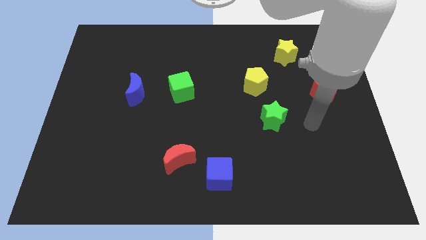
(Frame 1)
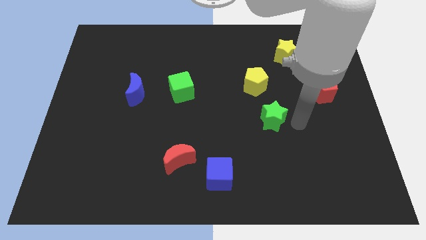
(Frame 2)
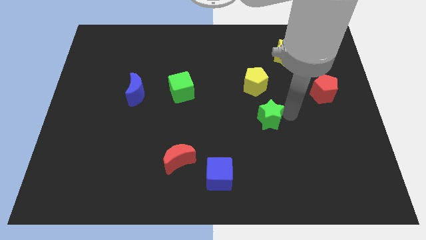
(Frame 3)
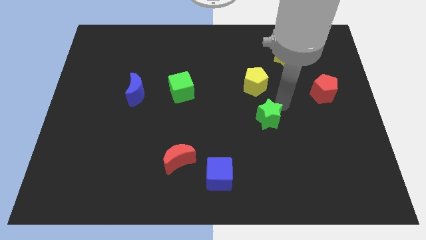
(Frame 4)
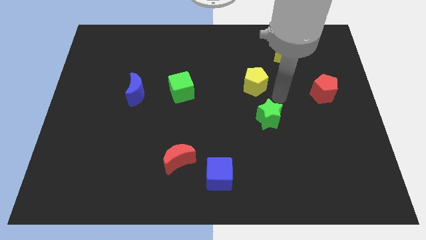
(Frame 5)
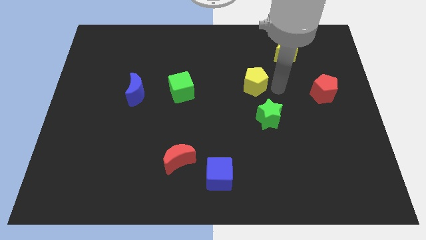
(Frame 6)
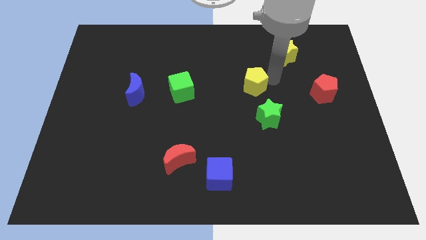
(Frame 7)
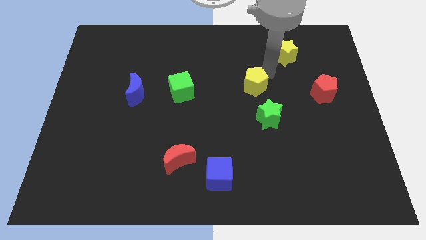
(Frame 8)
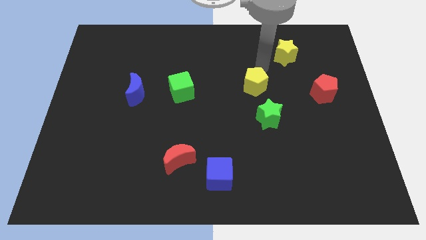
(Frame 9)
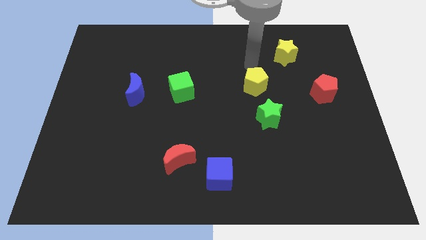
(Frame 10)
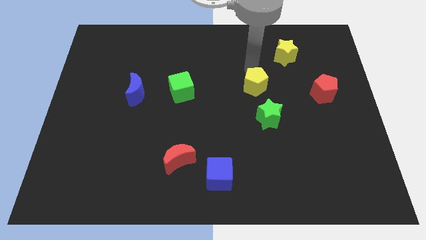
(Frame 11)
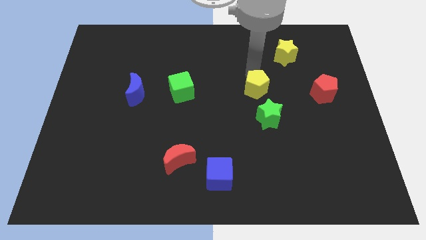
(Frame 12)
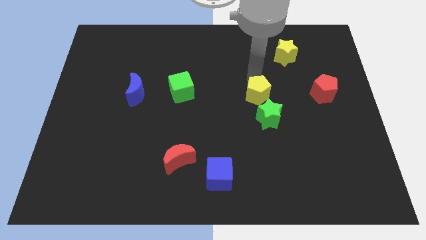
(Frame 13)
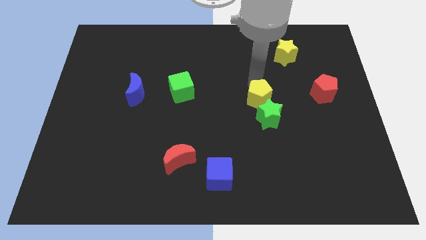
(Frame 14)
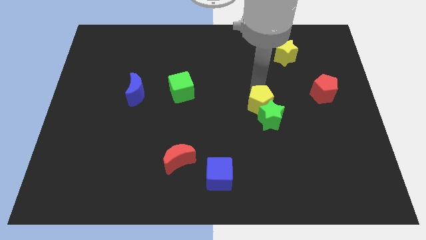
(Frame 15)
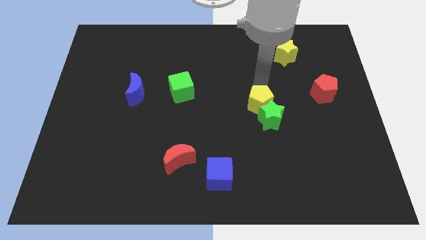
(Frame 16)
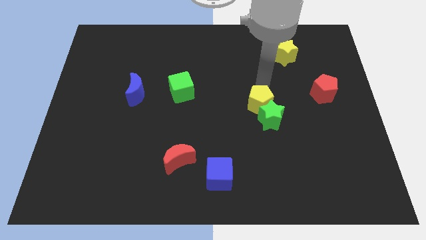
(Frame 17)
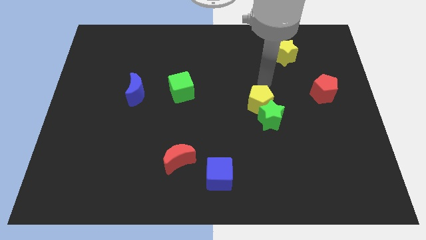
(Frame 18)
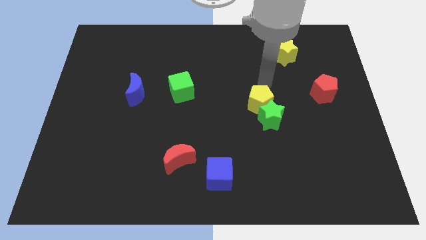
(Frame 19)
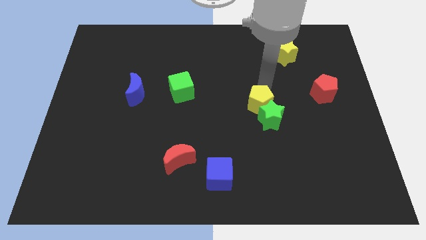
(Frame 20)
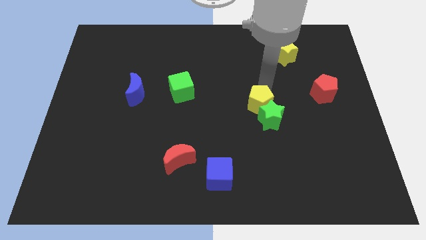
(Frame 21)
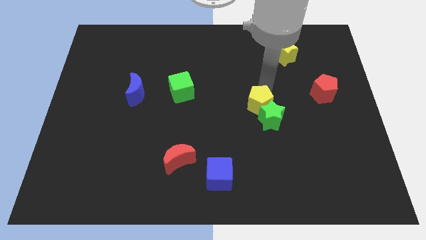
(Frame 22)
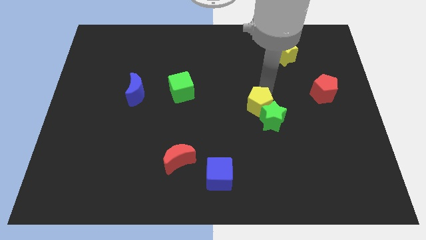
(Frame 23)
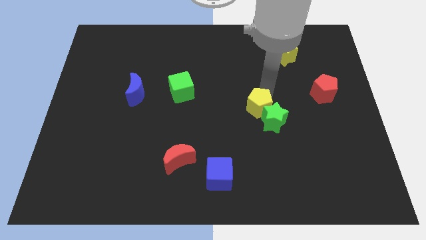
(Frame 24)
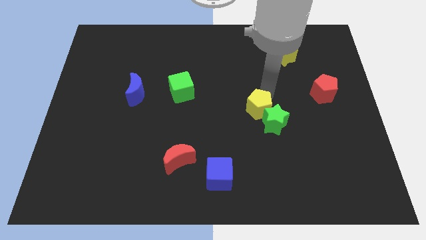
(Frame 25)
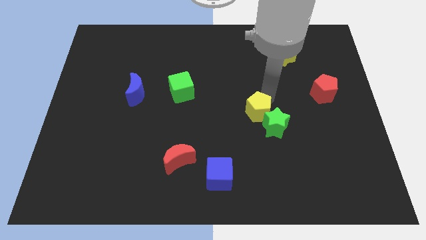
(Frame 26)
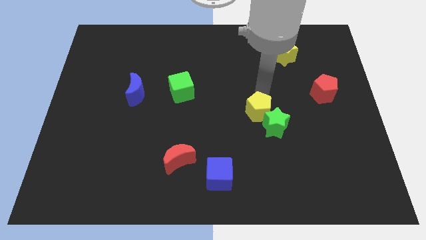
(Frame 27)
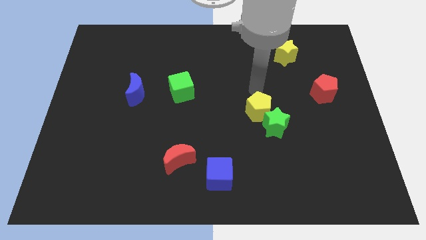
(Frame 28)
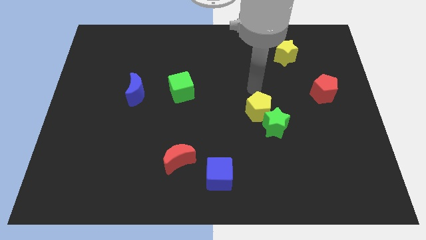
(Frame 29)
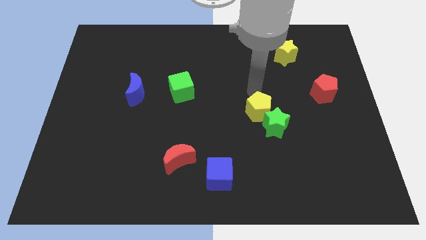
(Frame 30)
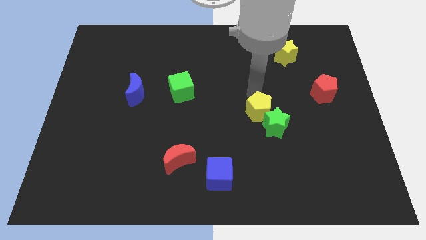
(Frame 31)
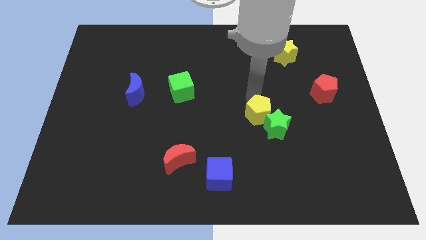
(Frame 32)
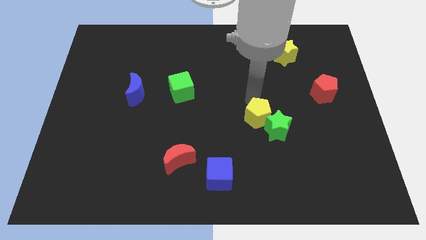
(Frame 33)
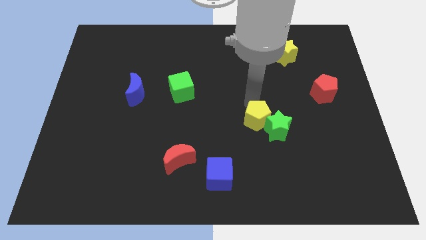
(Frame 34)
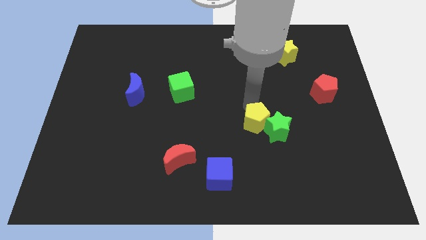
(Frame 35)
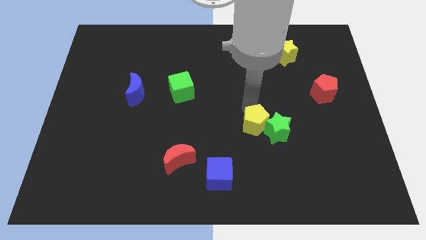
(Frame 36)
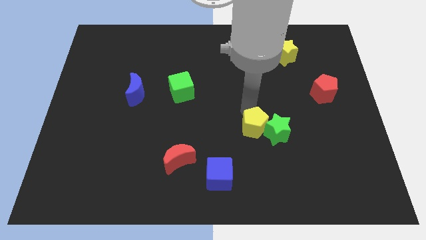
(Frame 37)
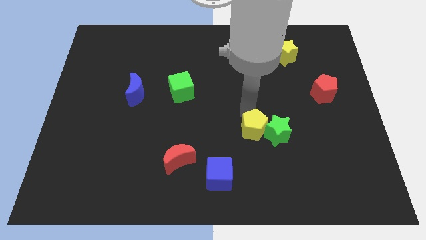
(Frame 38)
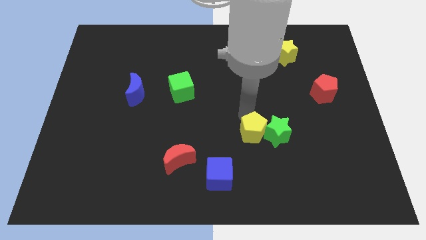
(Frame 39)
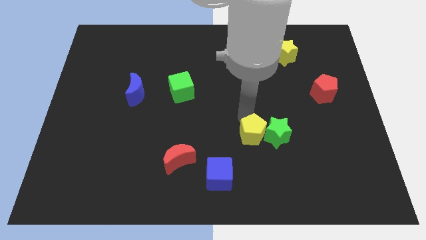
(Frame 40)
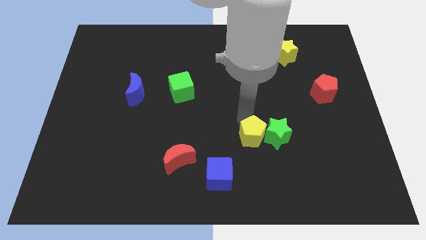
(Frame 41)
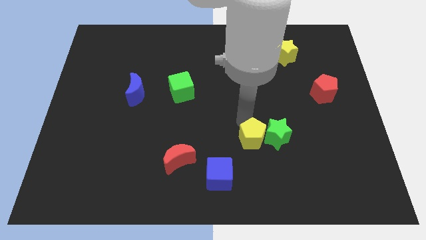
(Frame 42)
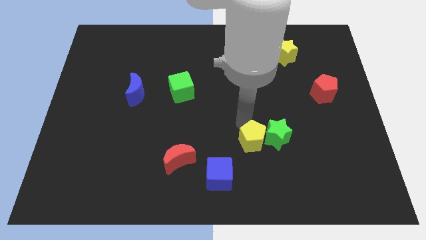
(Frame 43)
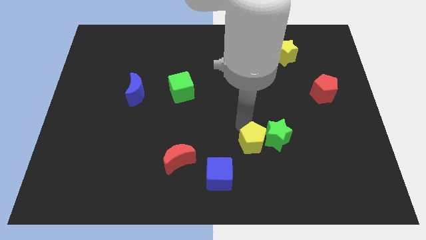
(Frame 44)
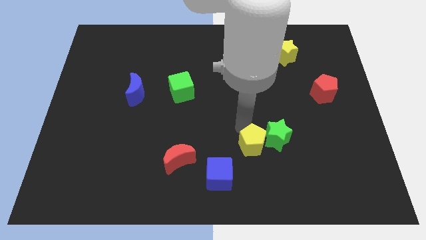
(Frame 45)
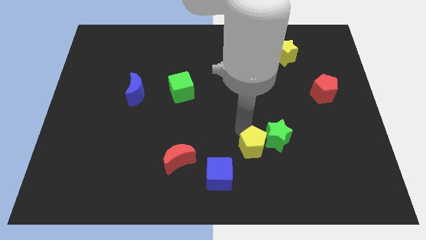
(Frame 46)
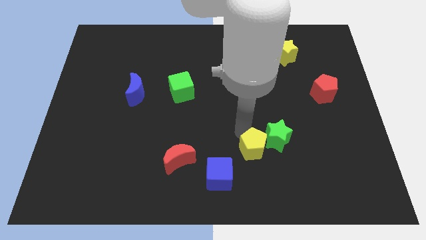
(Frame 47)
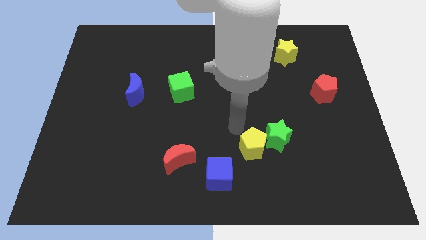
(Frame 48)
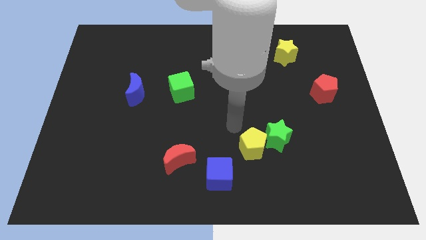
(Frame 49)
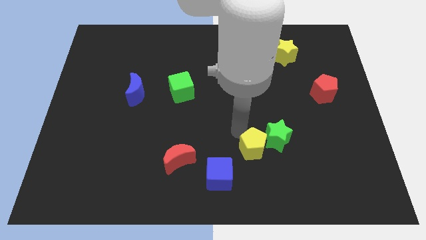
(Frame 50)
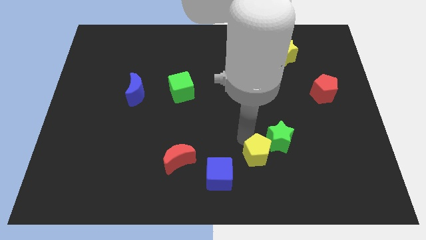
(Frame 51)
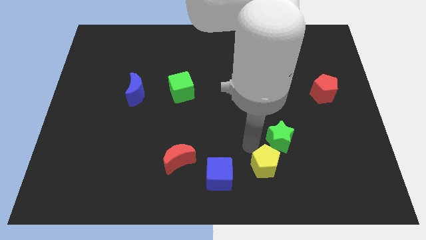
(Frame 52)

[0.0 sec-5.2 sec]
put the yellow pentagon below the green star

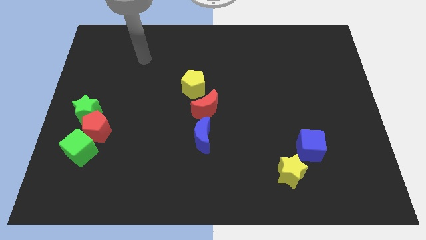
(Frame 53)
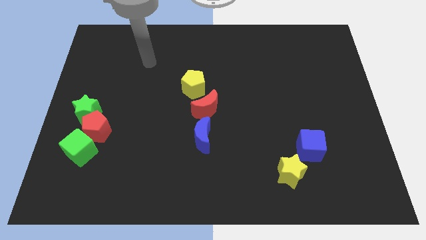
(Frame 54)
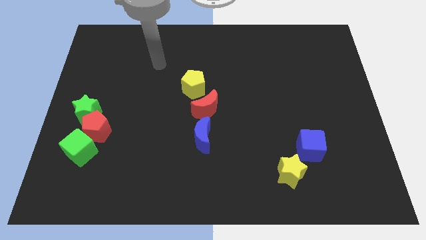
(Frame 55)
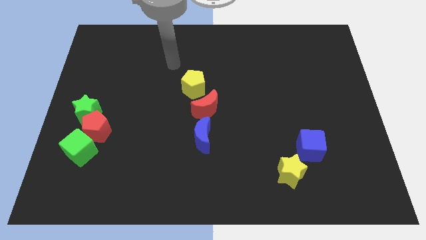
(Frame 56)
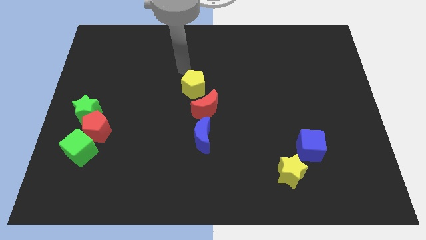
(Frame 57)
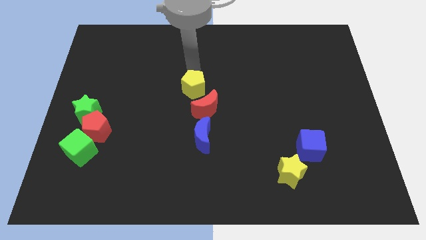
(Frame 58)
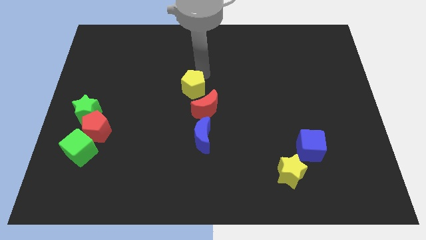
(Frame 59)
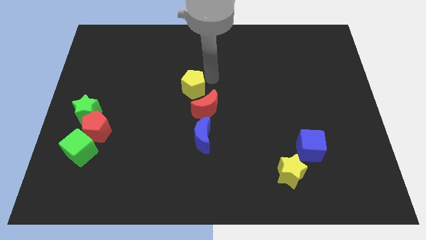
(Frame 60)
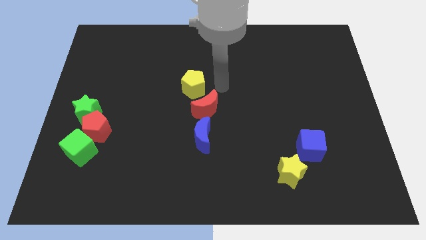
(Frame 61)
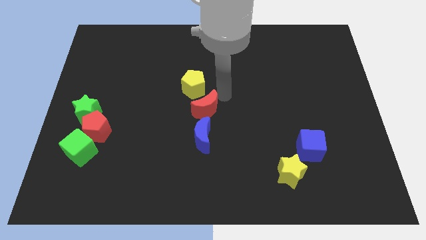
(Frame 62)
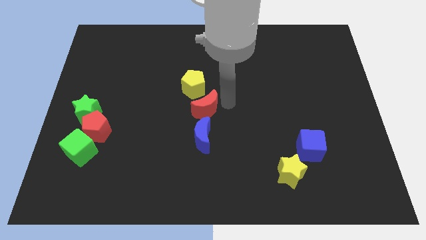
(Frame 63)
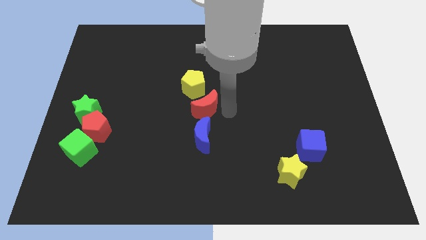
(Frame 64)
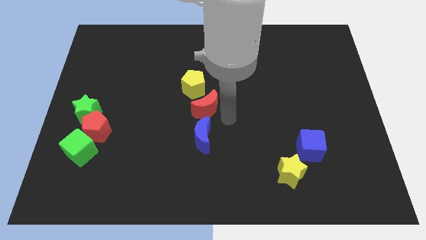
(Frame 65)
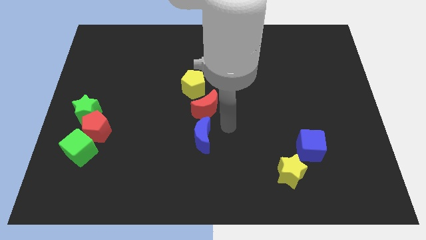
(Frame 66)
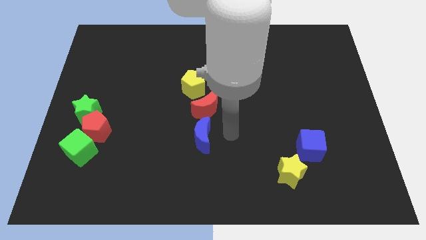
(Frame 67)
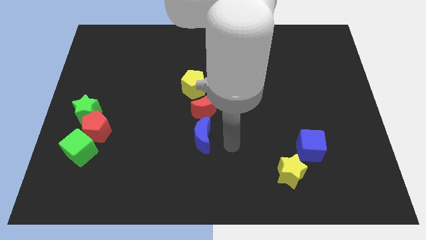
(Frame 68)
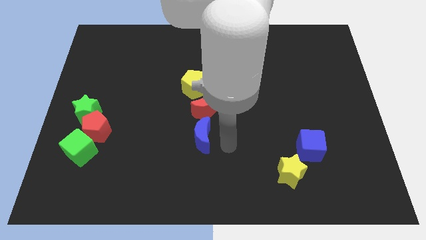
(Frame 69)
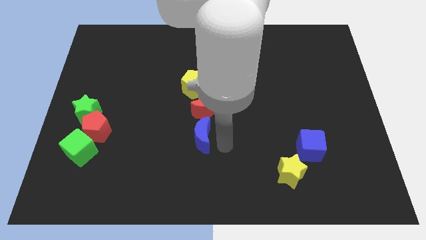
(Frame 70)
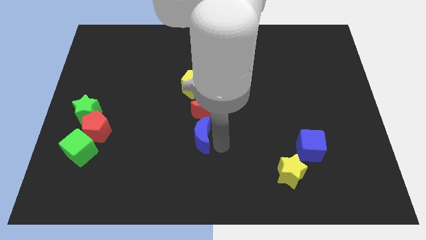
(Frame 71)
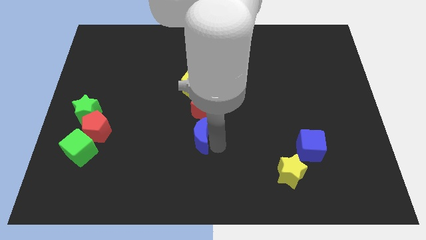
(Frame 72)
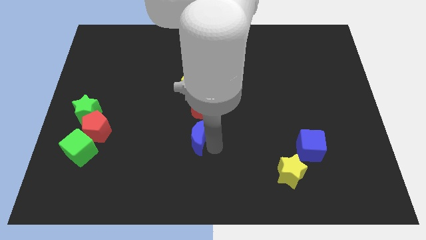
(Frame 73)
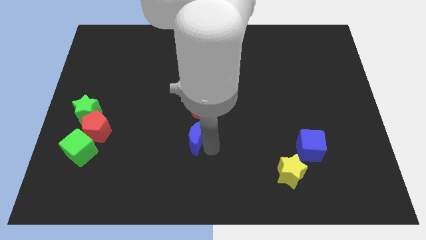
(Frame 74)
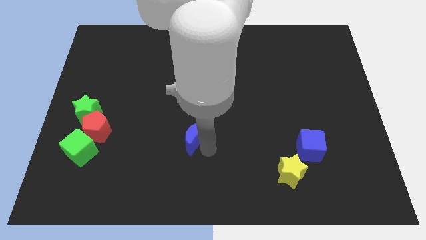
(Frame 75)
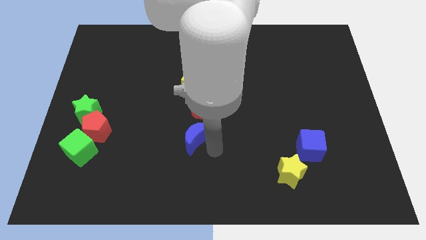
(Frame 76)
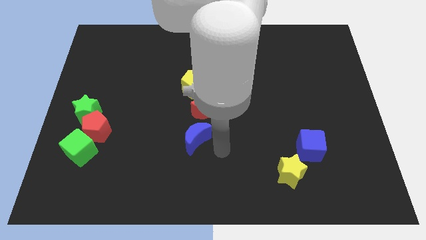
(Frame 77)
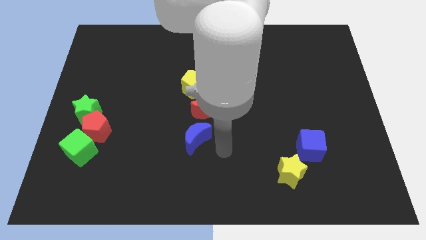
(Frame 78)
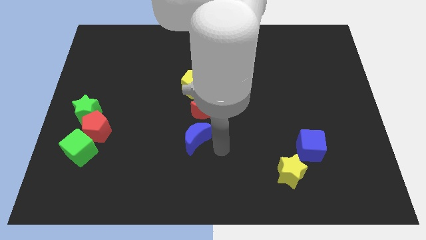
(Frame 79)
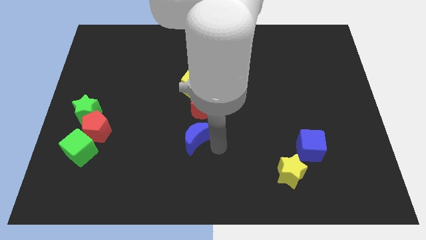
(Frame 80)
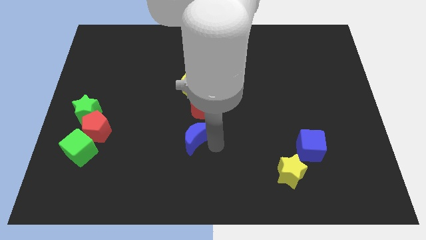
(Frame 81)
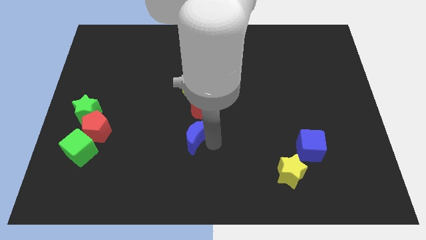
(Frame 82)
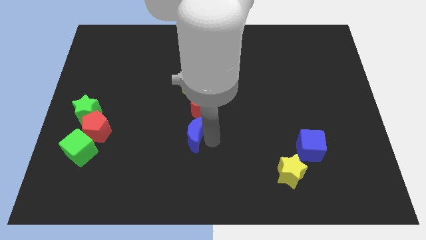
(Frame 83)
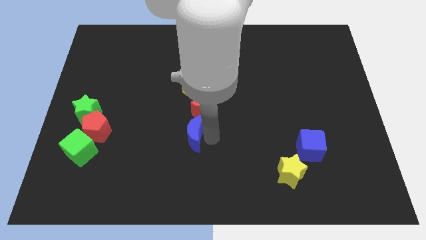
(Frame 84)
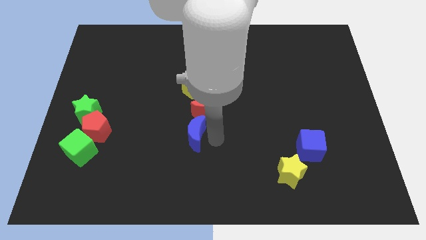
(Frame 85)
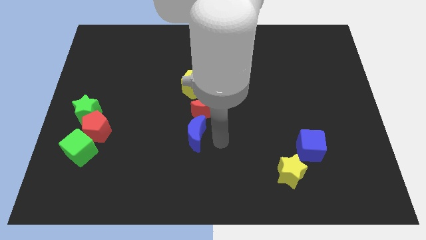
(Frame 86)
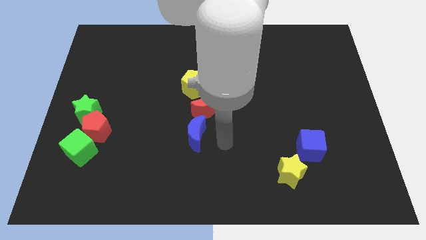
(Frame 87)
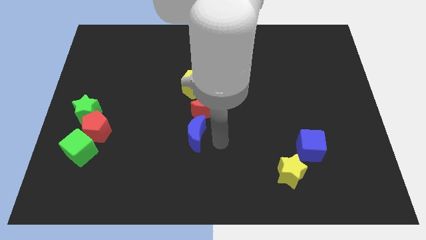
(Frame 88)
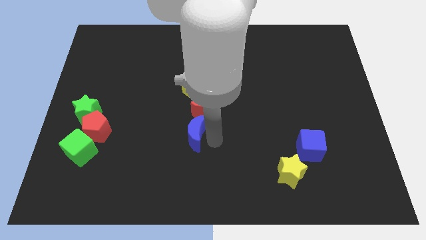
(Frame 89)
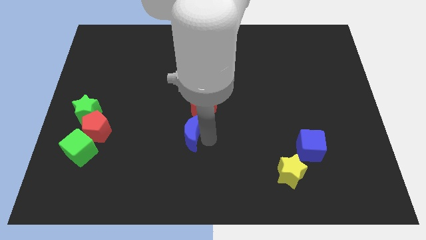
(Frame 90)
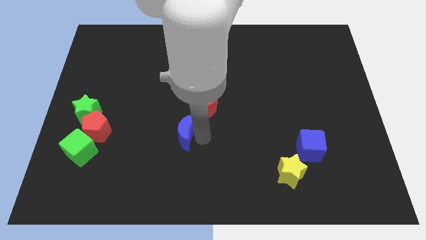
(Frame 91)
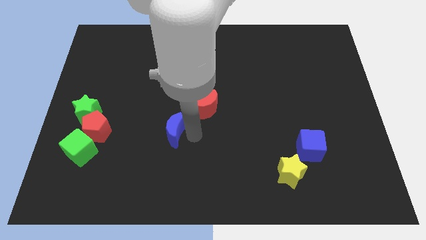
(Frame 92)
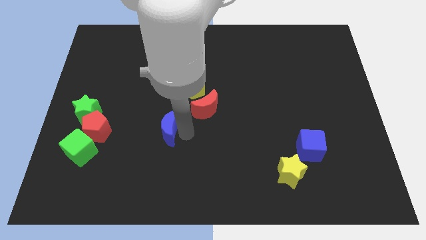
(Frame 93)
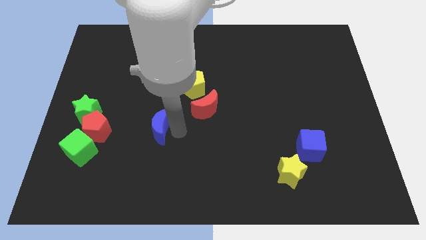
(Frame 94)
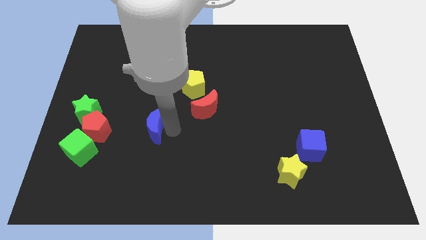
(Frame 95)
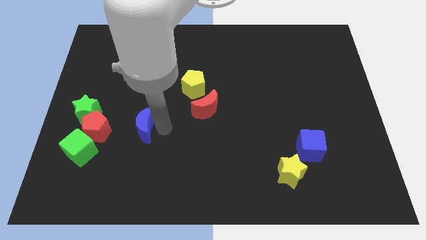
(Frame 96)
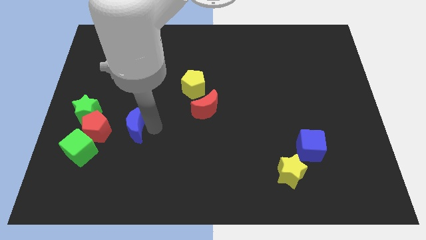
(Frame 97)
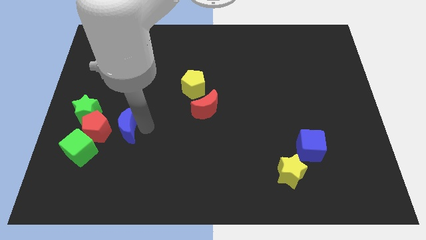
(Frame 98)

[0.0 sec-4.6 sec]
slide the blue moon diagonally down and to the right of the green star
